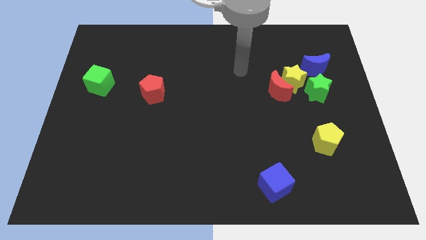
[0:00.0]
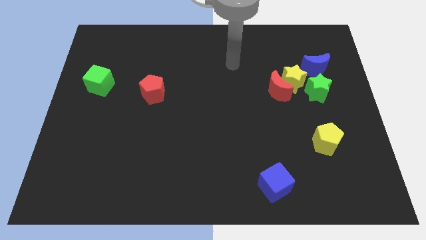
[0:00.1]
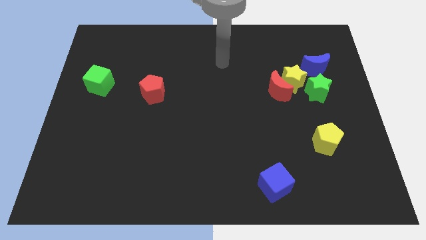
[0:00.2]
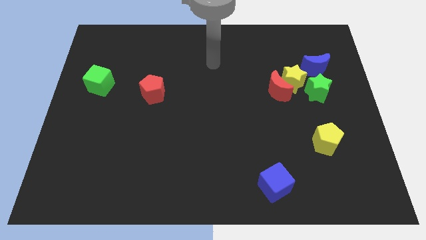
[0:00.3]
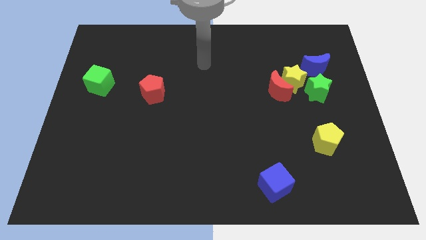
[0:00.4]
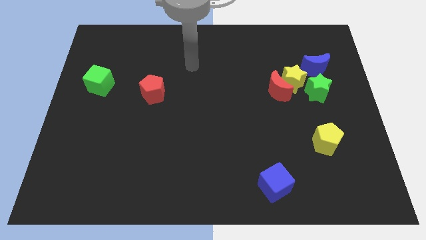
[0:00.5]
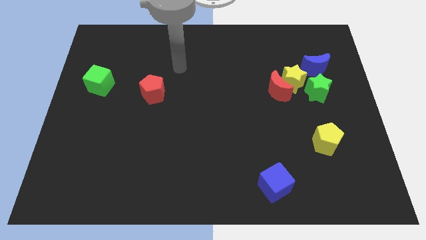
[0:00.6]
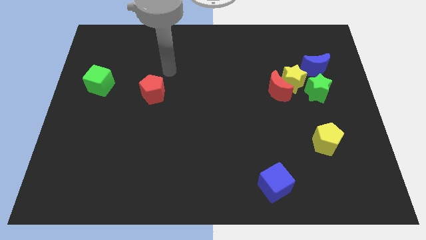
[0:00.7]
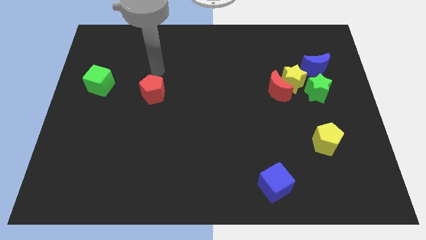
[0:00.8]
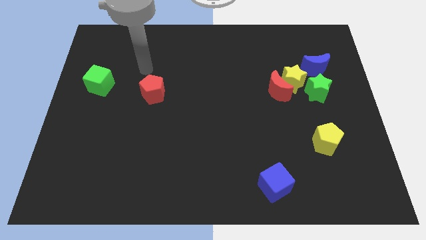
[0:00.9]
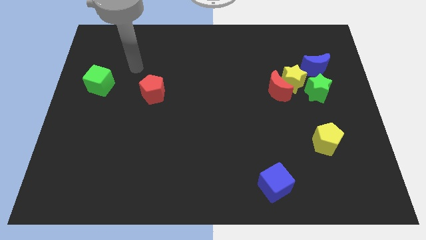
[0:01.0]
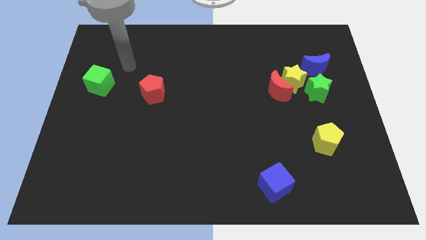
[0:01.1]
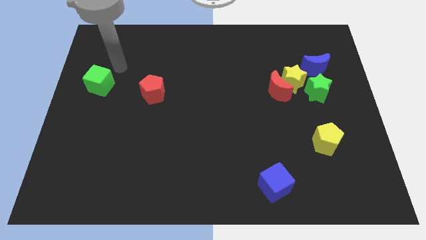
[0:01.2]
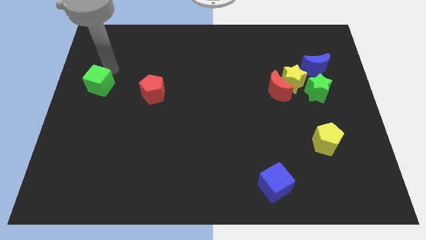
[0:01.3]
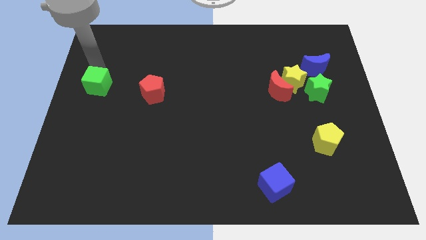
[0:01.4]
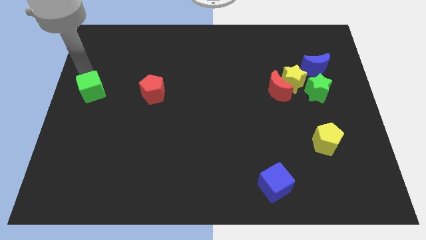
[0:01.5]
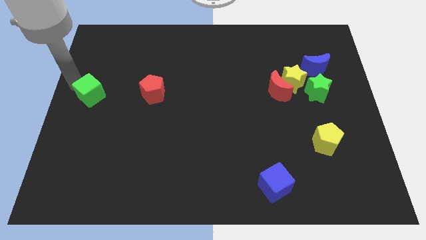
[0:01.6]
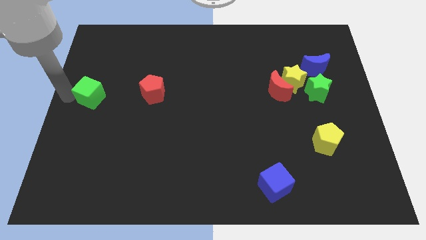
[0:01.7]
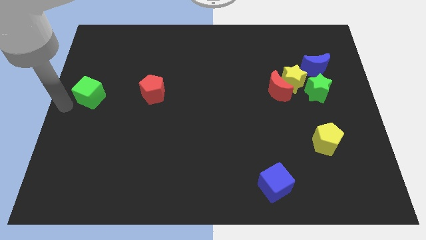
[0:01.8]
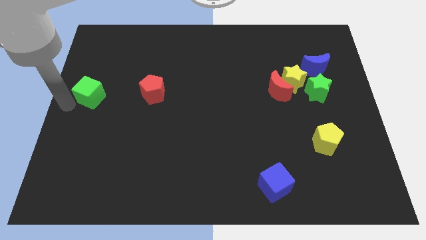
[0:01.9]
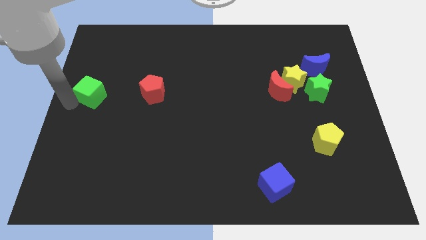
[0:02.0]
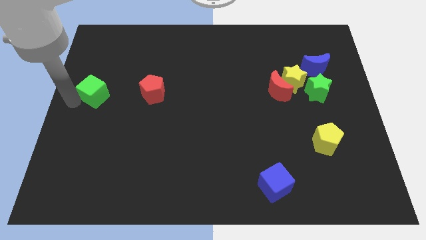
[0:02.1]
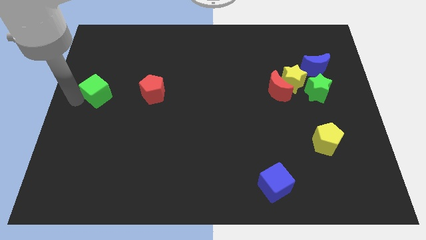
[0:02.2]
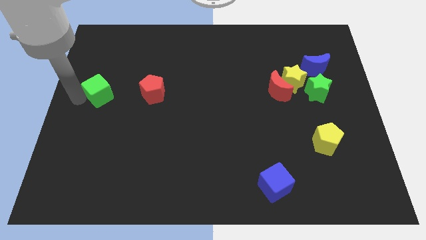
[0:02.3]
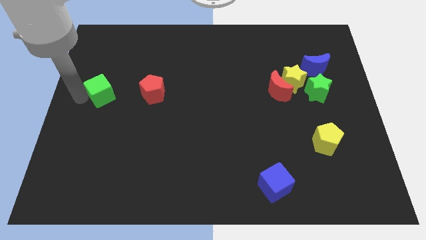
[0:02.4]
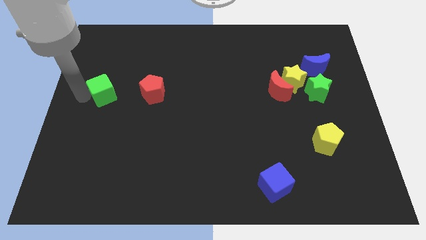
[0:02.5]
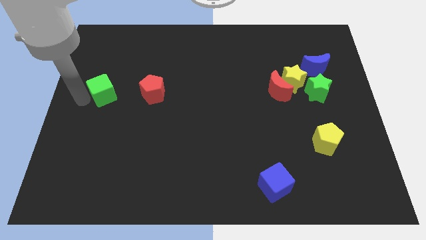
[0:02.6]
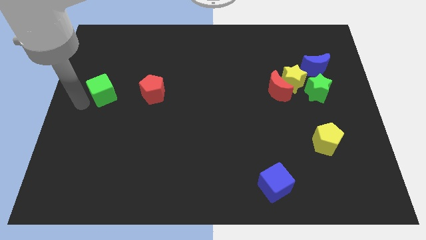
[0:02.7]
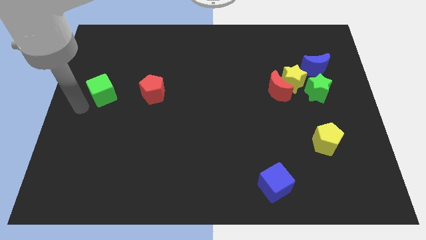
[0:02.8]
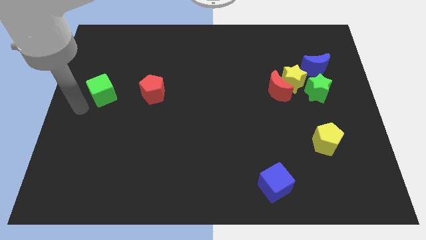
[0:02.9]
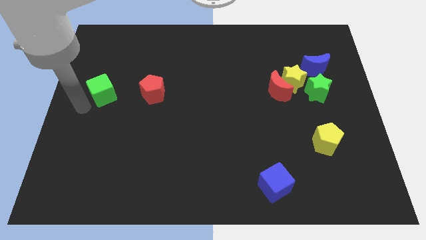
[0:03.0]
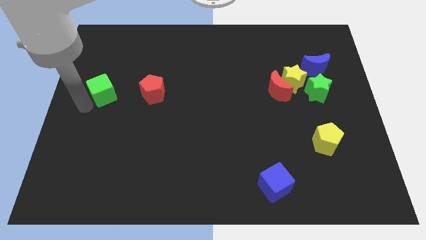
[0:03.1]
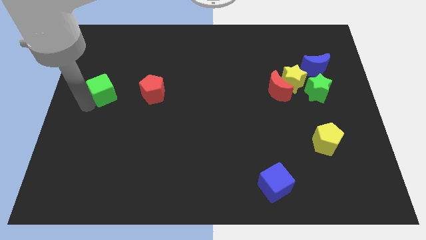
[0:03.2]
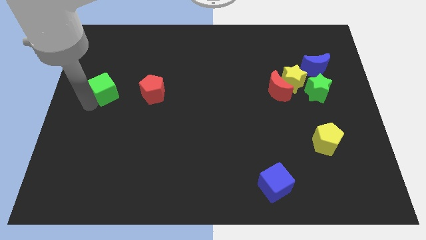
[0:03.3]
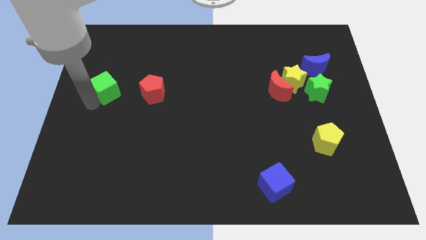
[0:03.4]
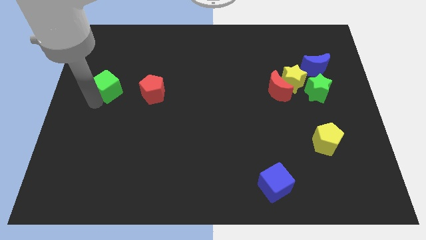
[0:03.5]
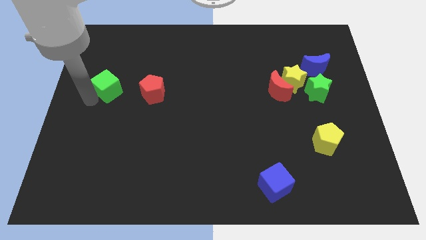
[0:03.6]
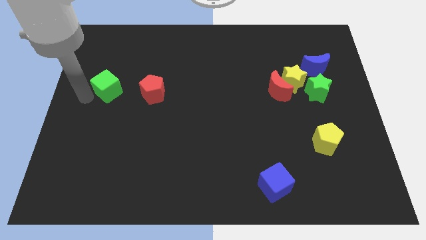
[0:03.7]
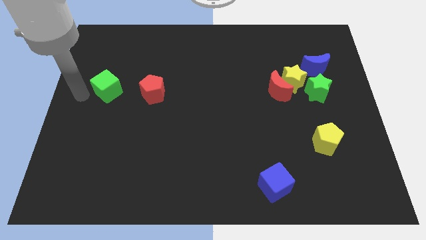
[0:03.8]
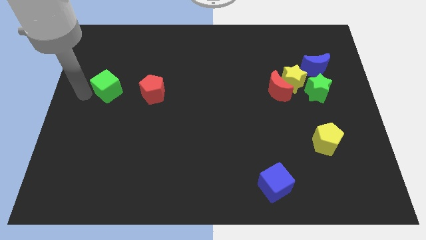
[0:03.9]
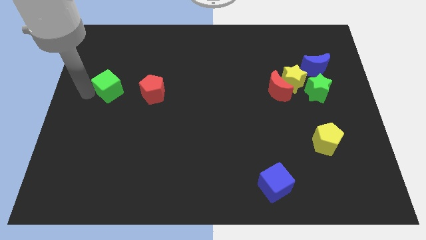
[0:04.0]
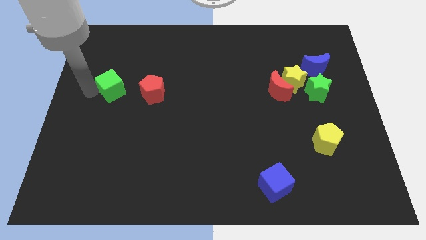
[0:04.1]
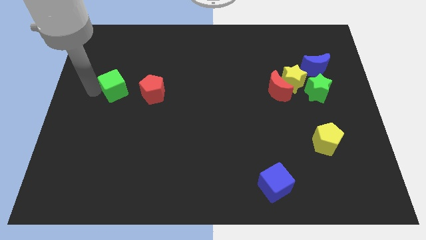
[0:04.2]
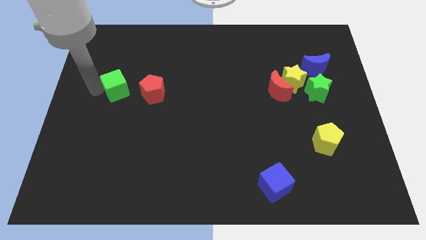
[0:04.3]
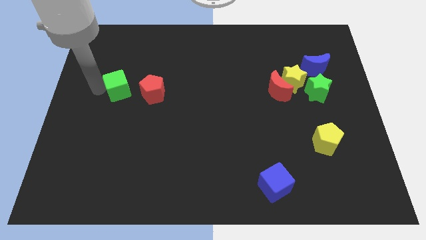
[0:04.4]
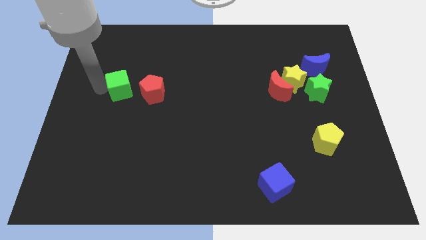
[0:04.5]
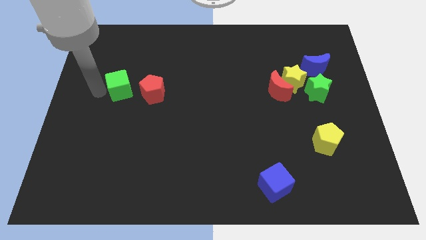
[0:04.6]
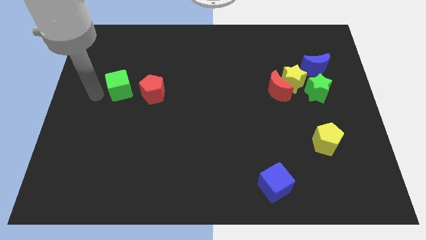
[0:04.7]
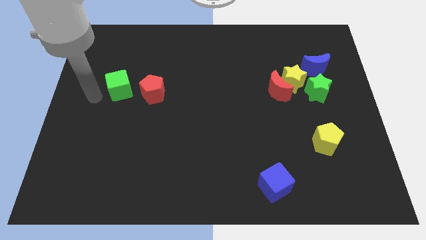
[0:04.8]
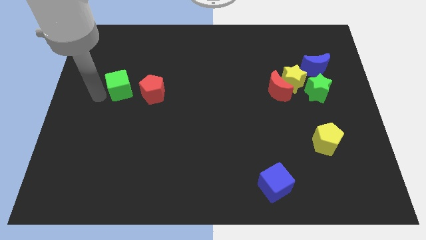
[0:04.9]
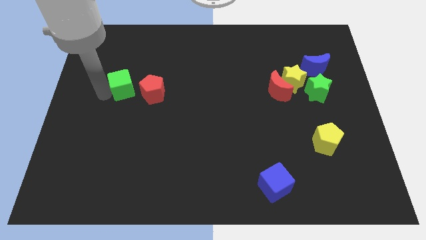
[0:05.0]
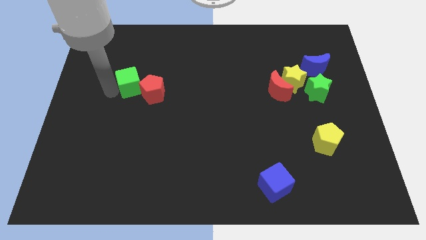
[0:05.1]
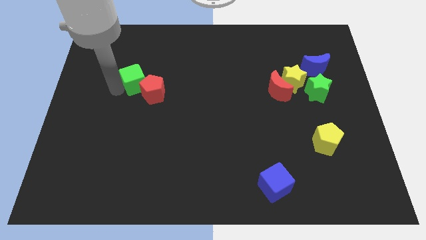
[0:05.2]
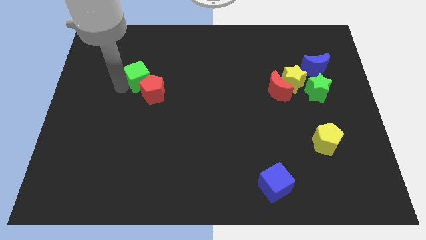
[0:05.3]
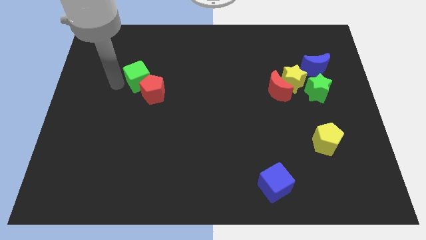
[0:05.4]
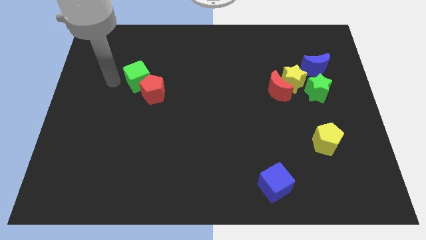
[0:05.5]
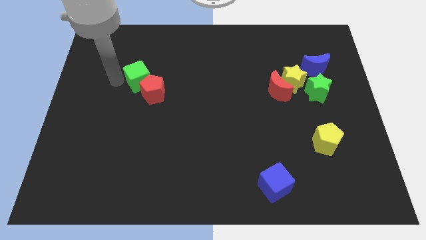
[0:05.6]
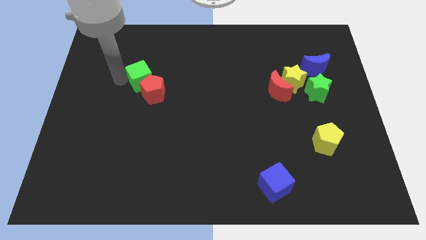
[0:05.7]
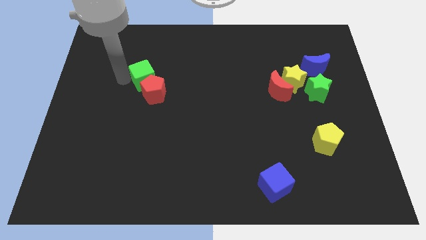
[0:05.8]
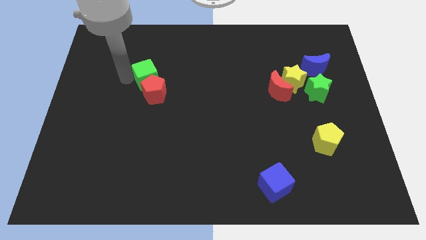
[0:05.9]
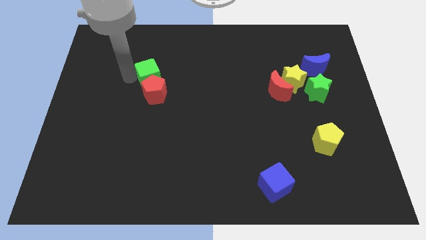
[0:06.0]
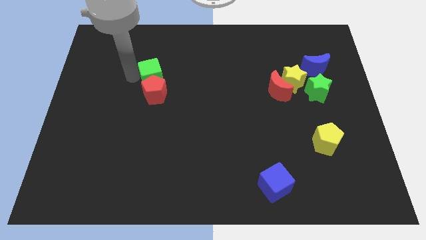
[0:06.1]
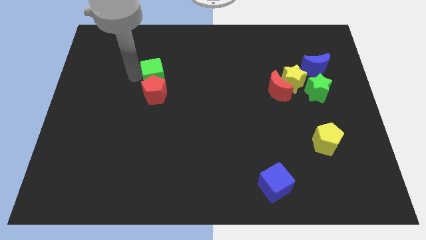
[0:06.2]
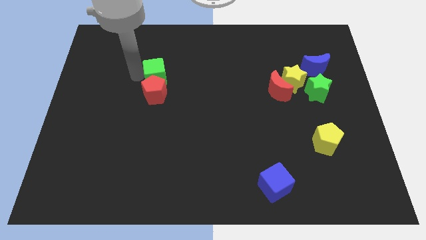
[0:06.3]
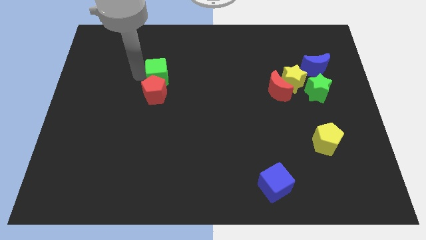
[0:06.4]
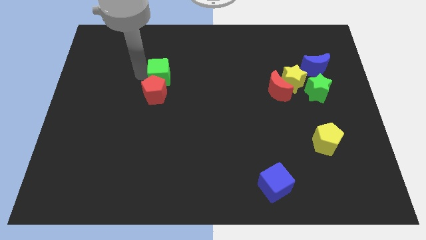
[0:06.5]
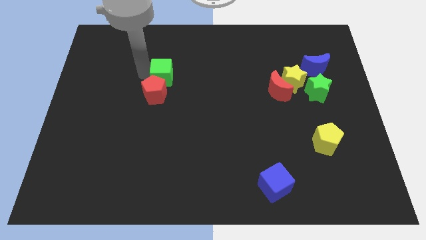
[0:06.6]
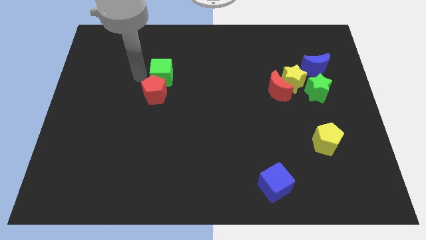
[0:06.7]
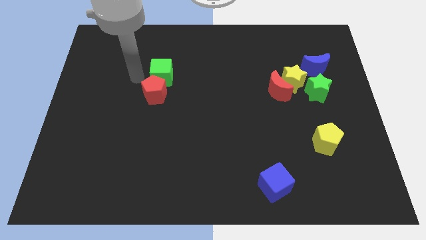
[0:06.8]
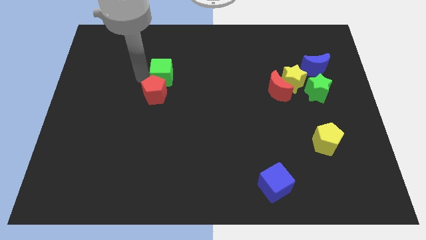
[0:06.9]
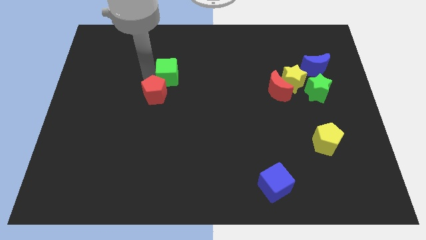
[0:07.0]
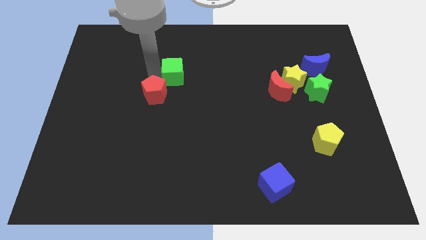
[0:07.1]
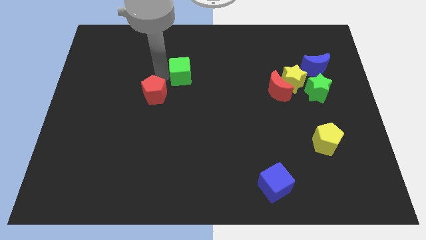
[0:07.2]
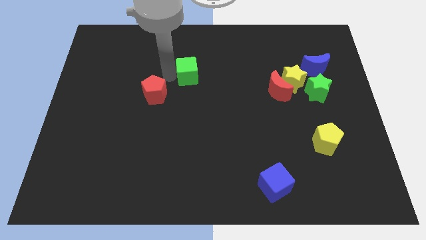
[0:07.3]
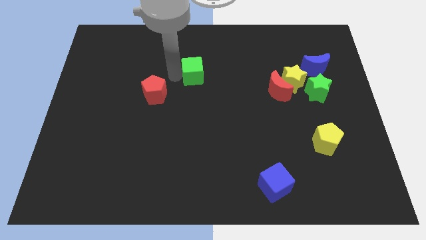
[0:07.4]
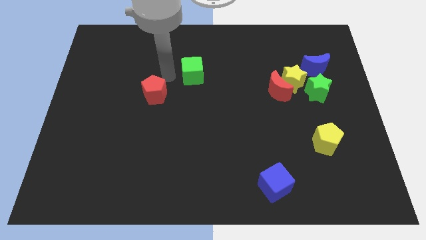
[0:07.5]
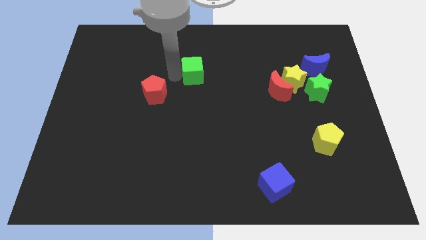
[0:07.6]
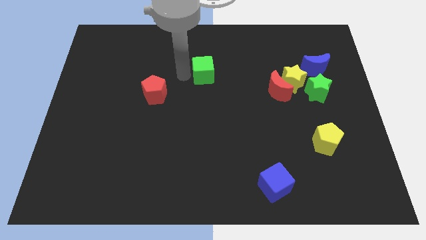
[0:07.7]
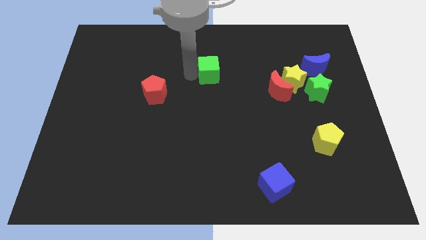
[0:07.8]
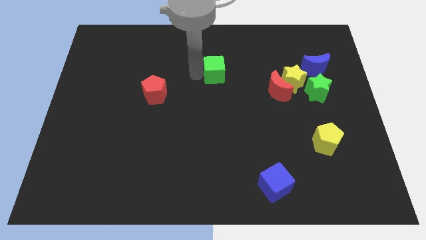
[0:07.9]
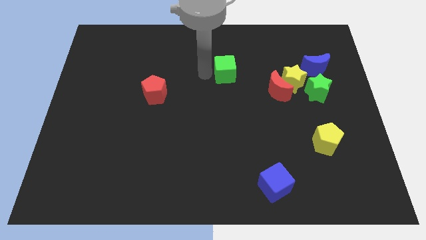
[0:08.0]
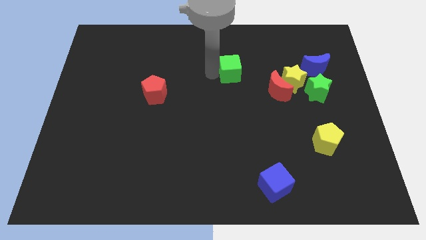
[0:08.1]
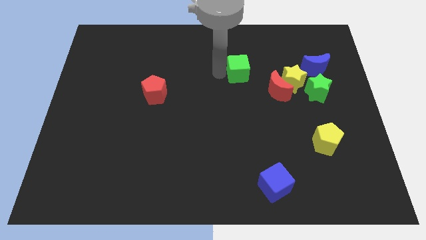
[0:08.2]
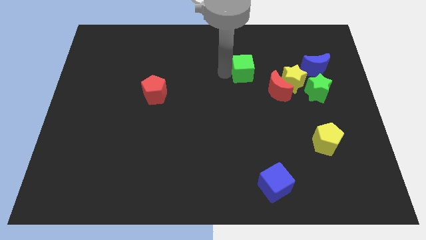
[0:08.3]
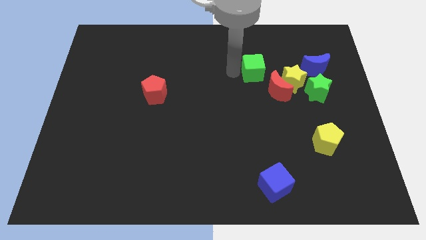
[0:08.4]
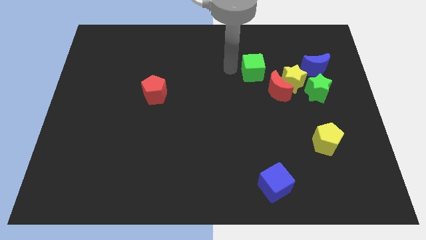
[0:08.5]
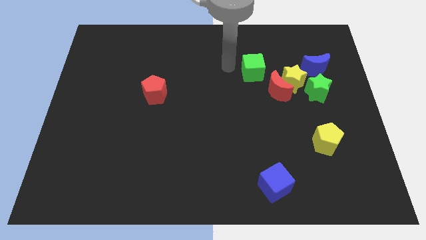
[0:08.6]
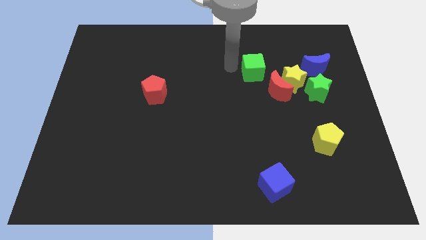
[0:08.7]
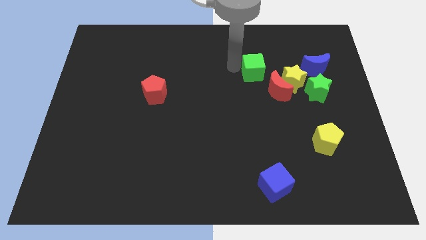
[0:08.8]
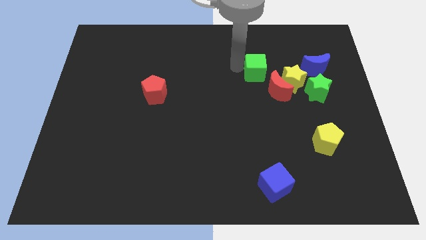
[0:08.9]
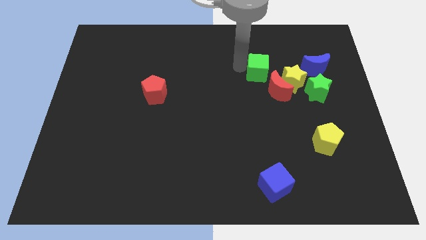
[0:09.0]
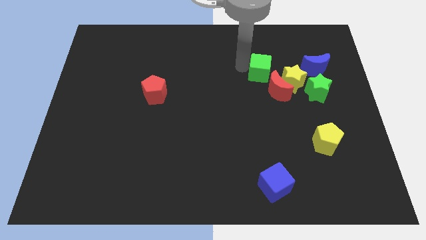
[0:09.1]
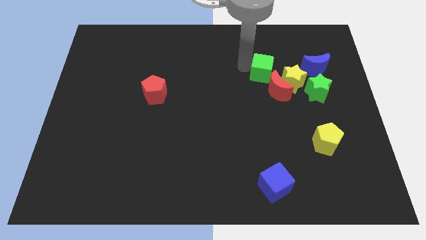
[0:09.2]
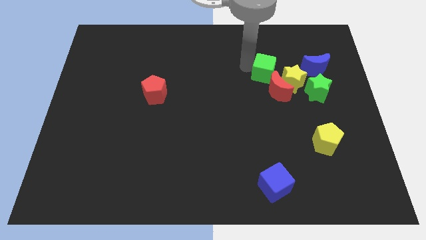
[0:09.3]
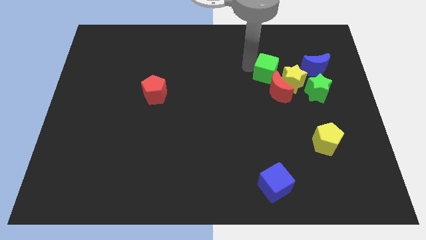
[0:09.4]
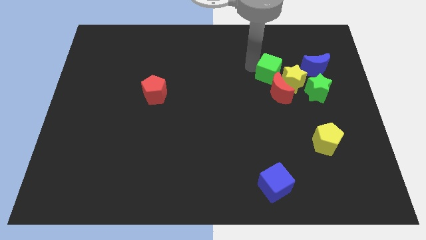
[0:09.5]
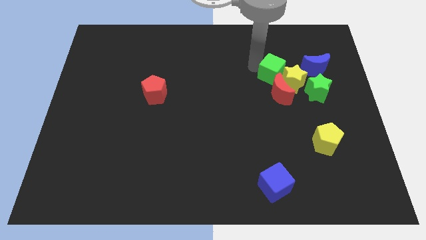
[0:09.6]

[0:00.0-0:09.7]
push the green cube to the yellow star
